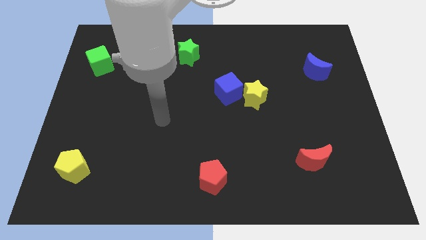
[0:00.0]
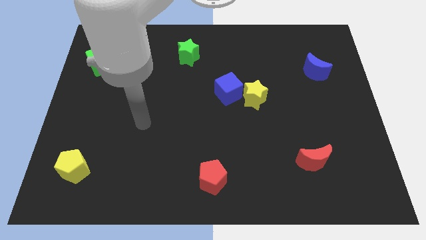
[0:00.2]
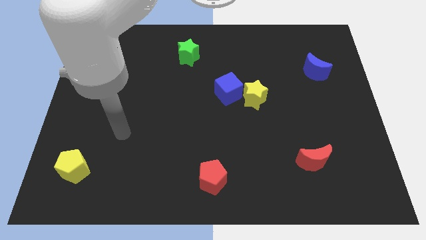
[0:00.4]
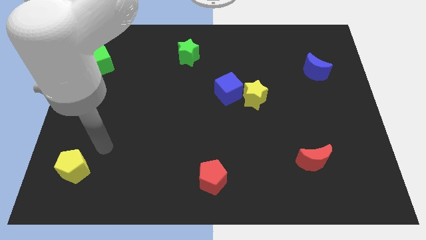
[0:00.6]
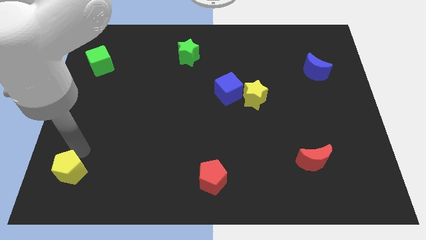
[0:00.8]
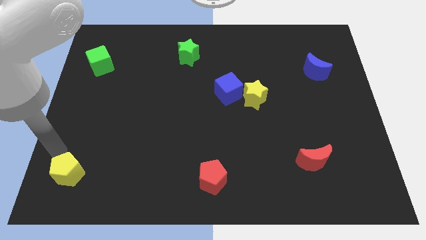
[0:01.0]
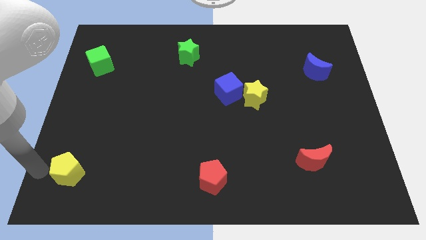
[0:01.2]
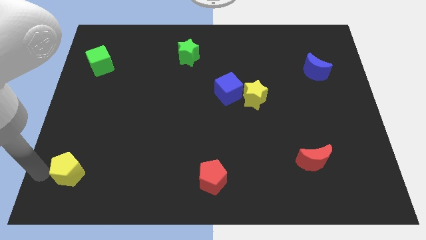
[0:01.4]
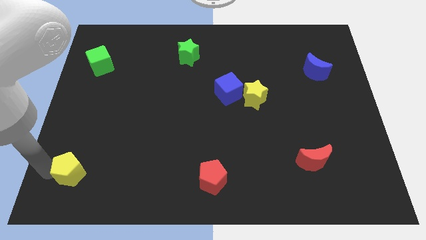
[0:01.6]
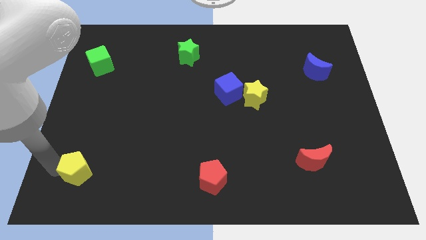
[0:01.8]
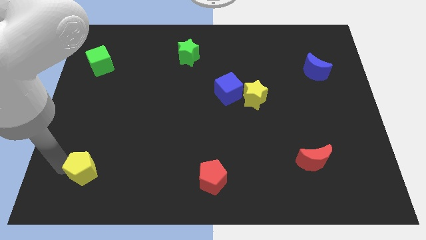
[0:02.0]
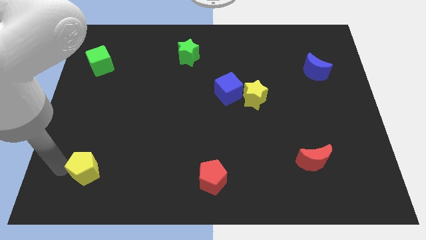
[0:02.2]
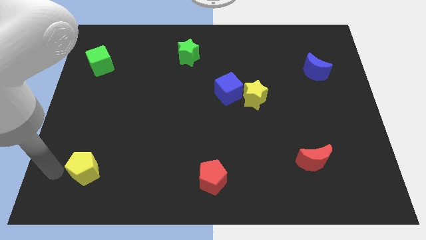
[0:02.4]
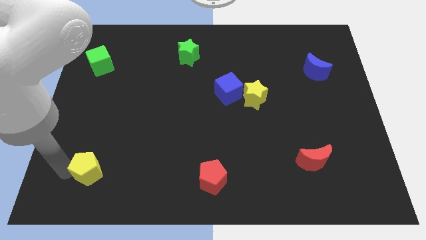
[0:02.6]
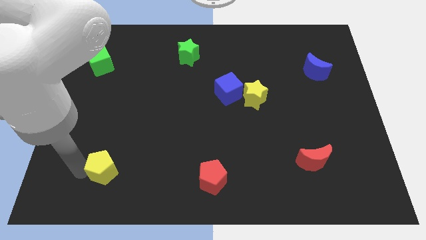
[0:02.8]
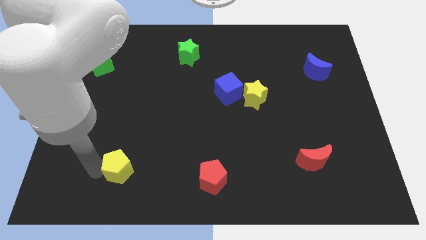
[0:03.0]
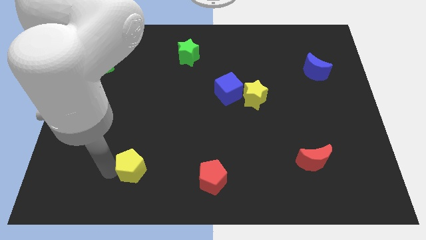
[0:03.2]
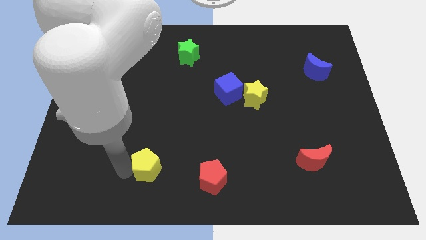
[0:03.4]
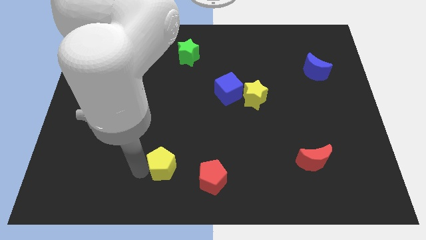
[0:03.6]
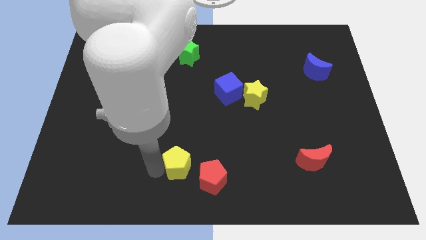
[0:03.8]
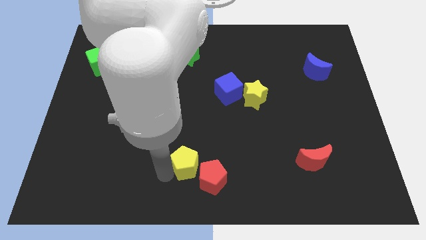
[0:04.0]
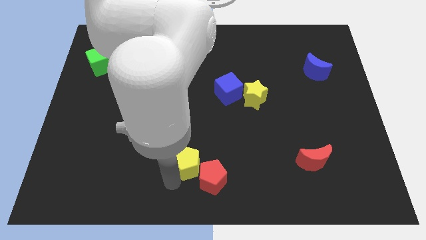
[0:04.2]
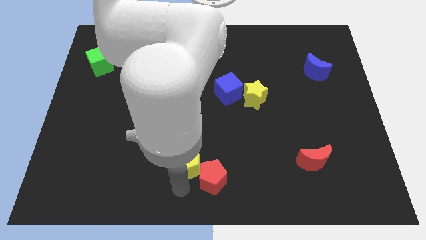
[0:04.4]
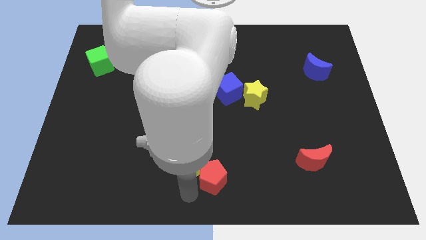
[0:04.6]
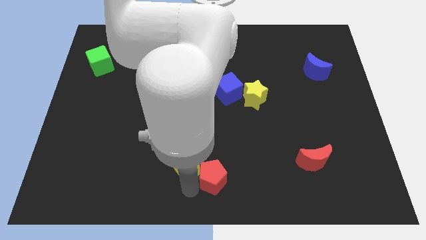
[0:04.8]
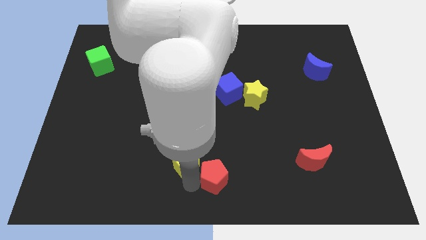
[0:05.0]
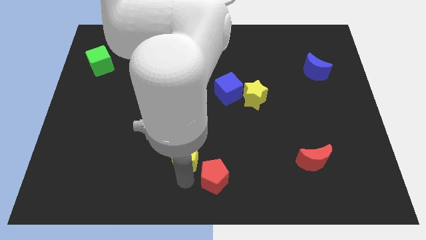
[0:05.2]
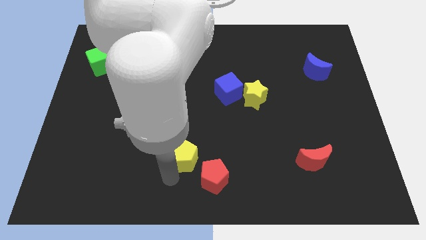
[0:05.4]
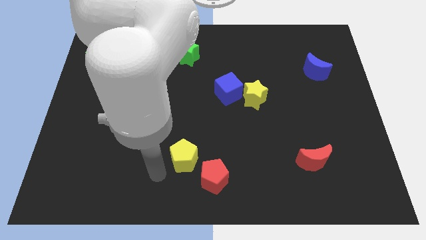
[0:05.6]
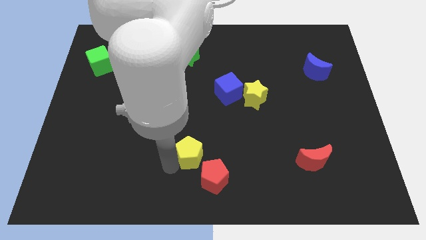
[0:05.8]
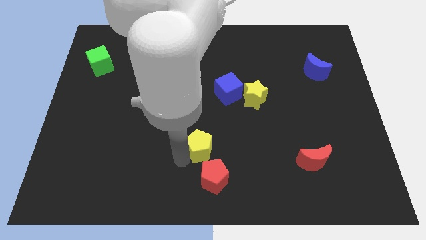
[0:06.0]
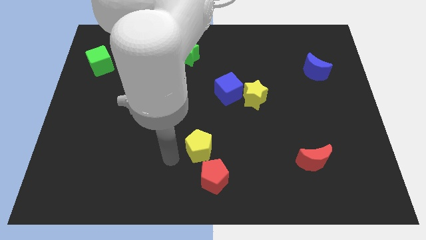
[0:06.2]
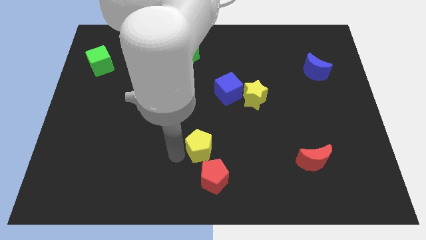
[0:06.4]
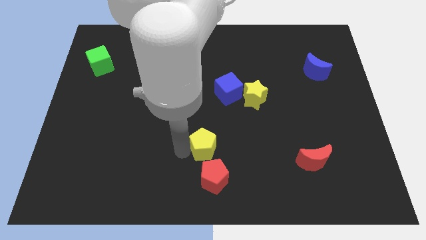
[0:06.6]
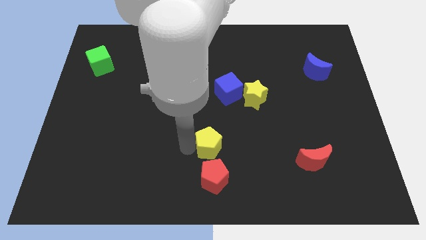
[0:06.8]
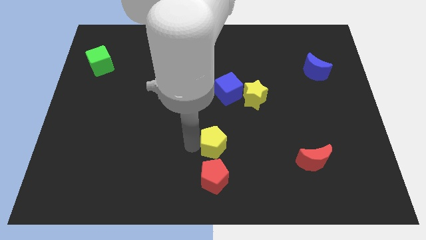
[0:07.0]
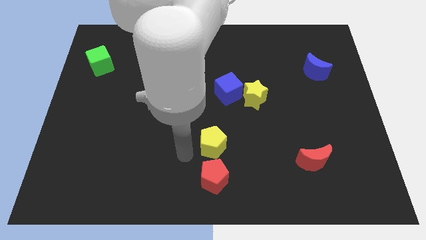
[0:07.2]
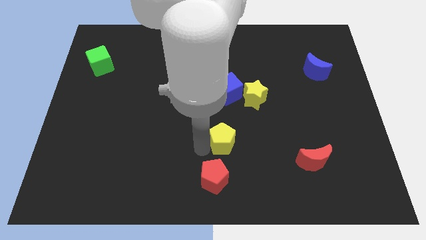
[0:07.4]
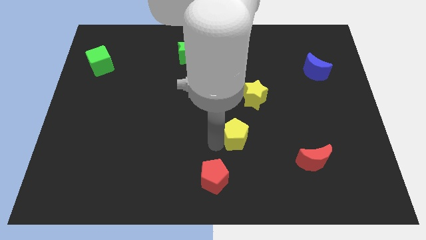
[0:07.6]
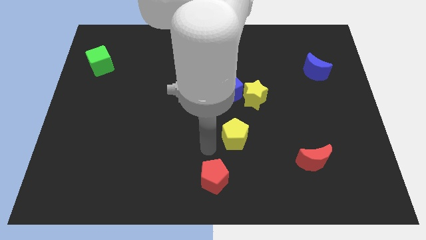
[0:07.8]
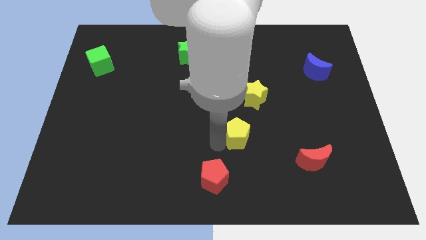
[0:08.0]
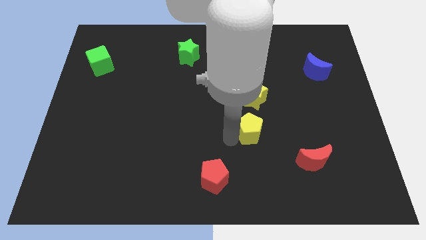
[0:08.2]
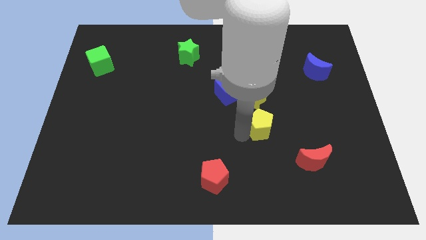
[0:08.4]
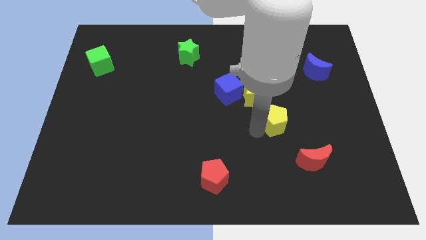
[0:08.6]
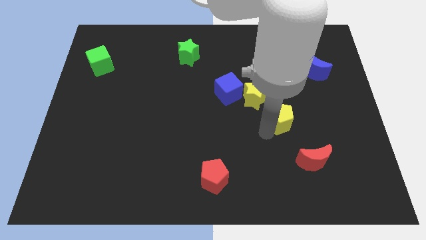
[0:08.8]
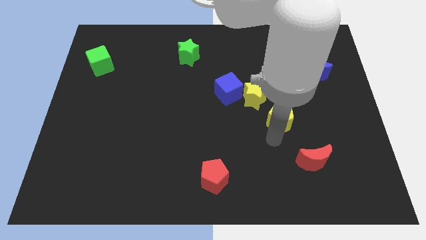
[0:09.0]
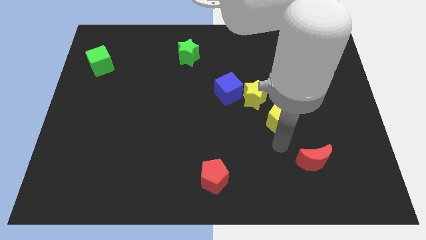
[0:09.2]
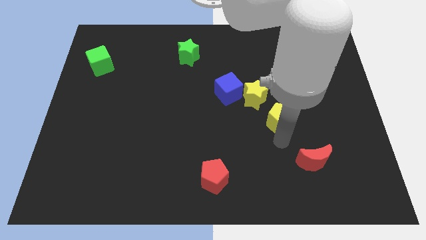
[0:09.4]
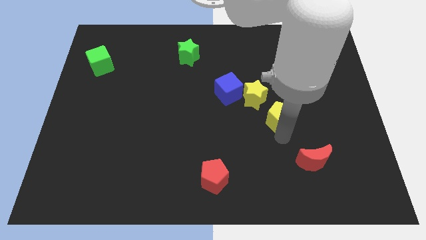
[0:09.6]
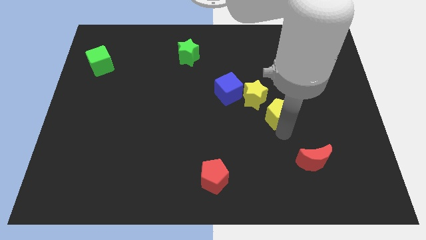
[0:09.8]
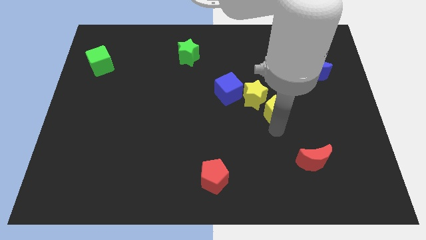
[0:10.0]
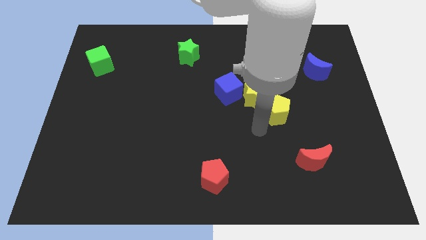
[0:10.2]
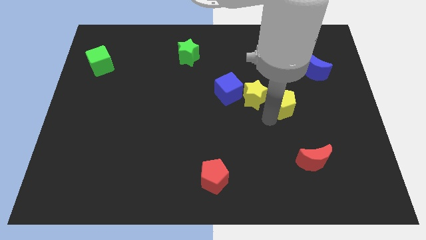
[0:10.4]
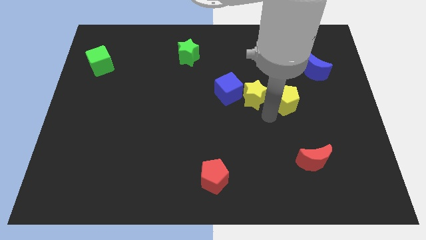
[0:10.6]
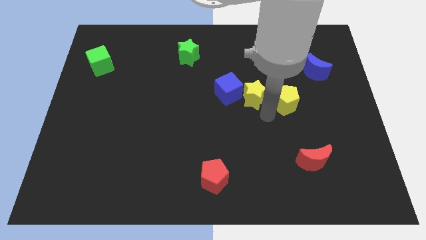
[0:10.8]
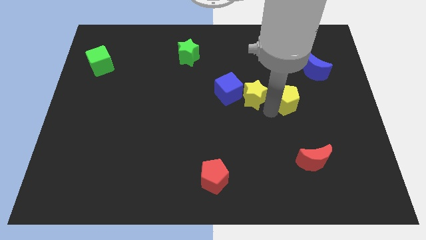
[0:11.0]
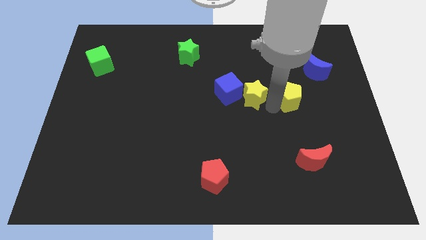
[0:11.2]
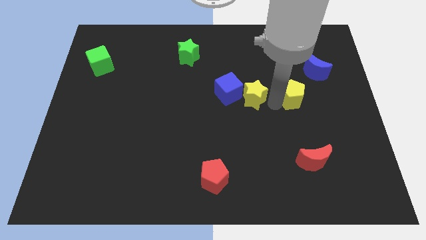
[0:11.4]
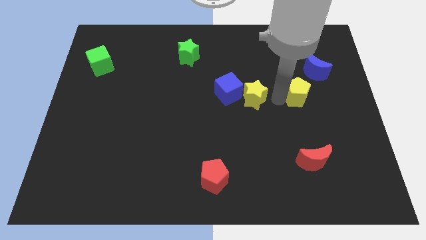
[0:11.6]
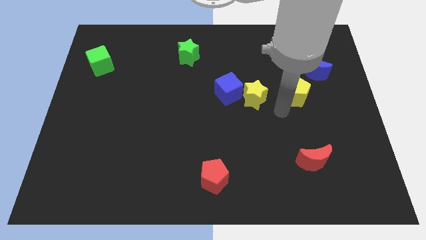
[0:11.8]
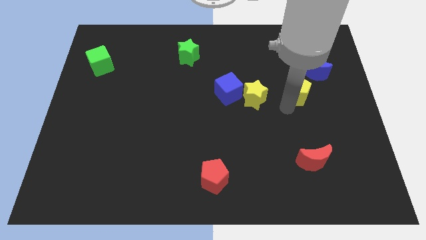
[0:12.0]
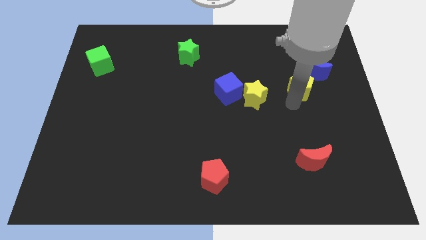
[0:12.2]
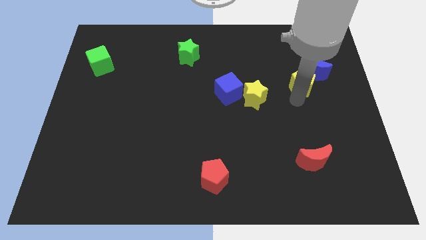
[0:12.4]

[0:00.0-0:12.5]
move the yellow pentagon close to the blue moon

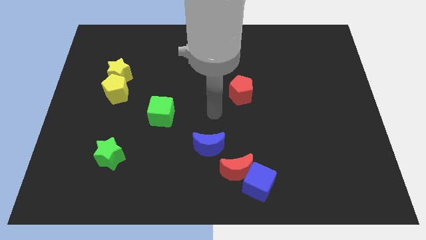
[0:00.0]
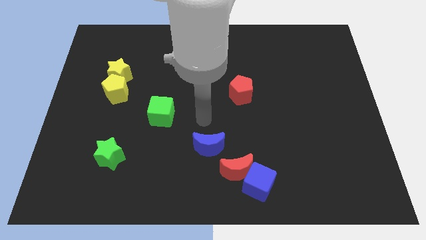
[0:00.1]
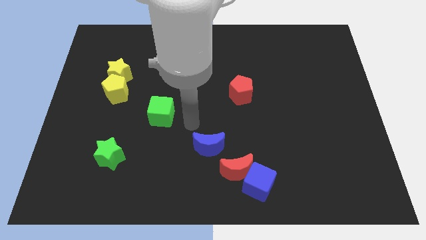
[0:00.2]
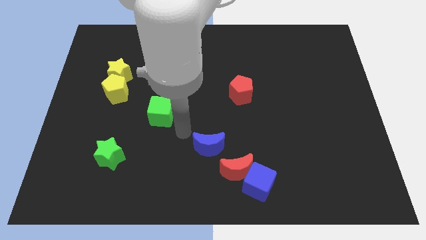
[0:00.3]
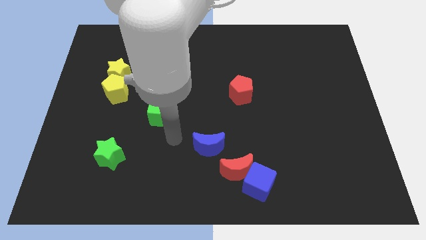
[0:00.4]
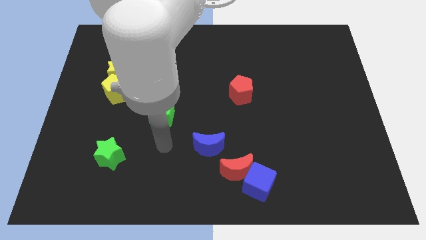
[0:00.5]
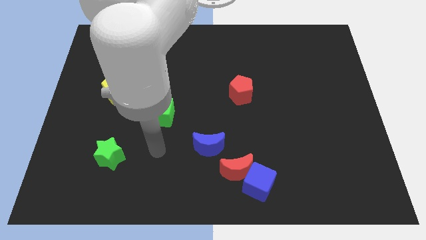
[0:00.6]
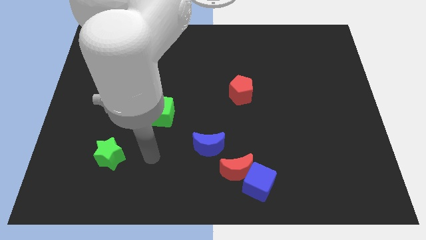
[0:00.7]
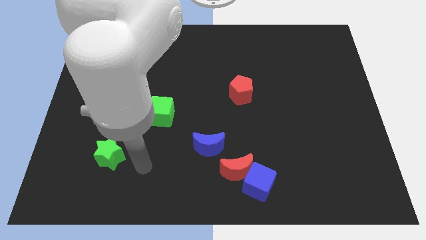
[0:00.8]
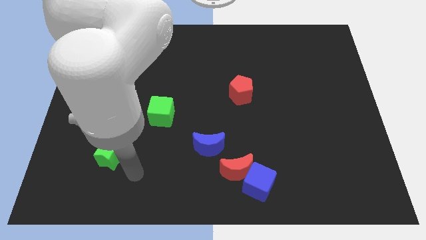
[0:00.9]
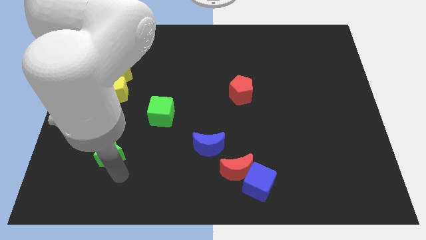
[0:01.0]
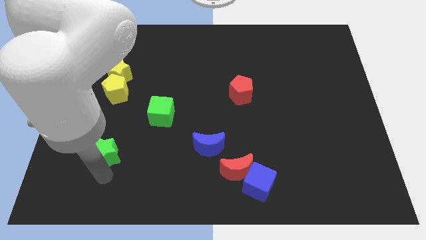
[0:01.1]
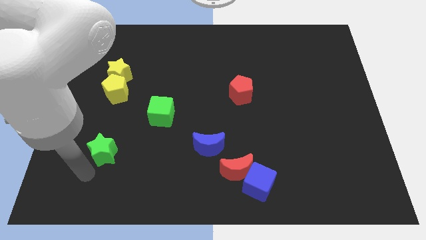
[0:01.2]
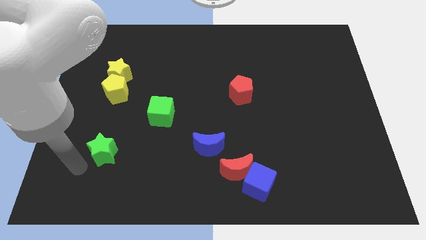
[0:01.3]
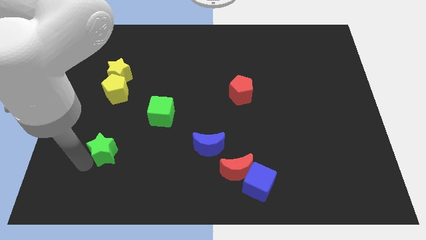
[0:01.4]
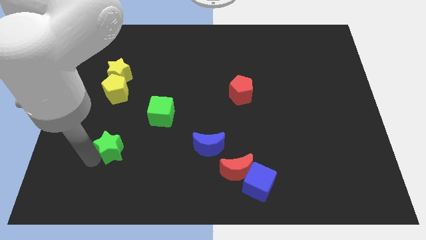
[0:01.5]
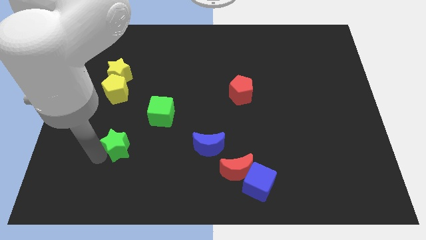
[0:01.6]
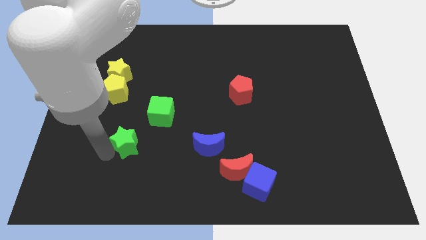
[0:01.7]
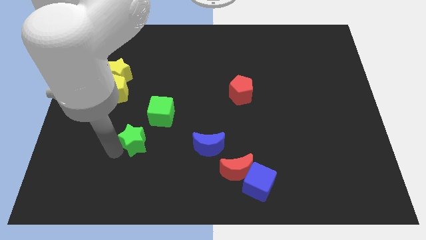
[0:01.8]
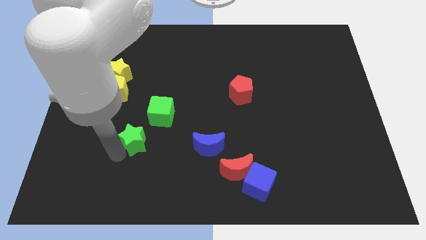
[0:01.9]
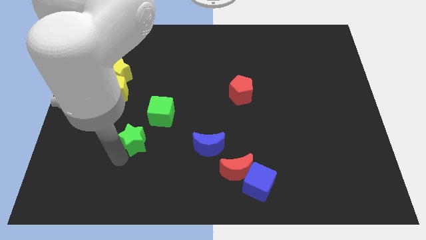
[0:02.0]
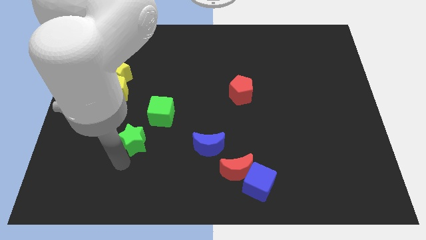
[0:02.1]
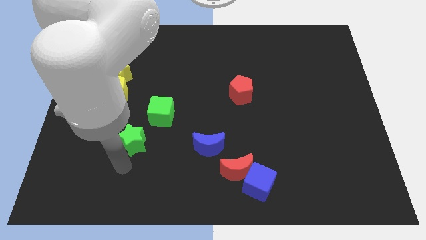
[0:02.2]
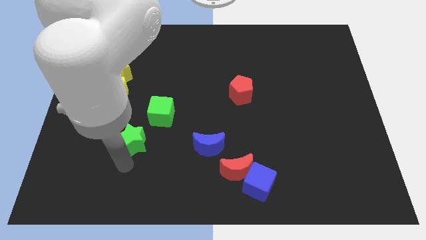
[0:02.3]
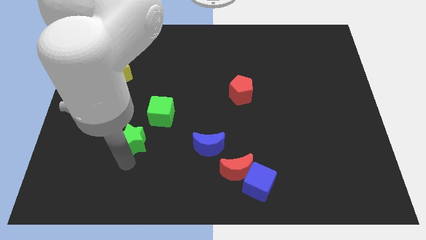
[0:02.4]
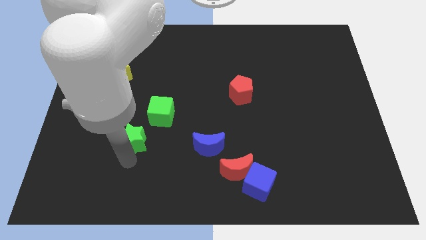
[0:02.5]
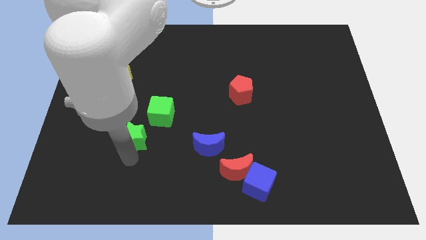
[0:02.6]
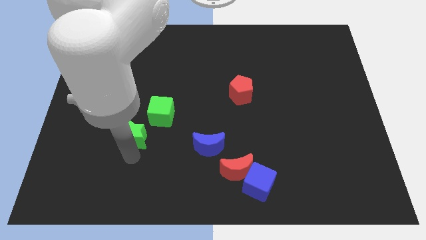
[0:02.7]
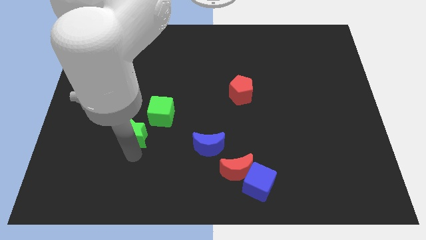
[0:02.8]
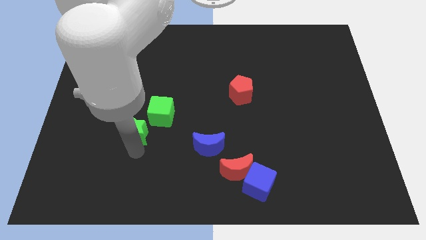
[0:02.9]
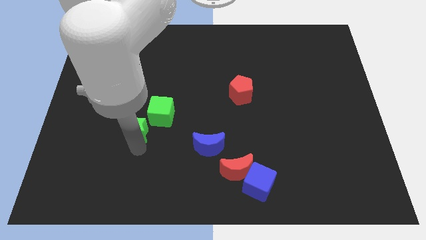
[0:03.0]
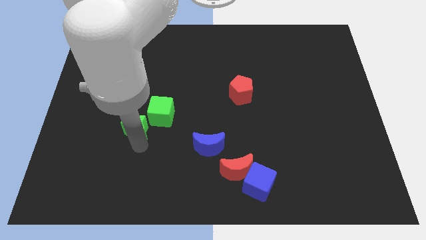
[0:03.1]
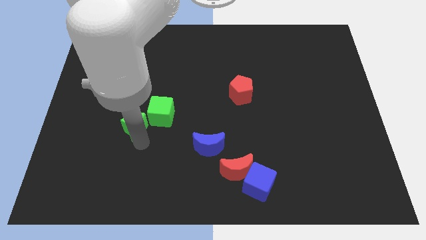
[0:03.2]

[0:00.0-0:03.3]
move the green star to the green cube
